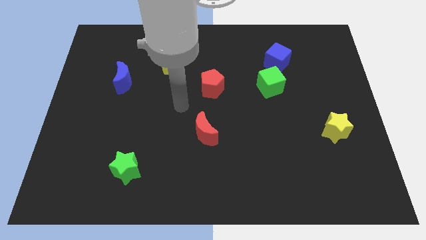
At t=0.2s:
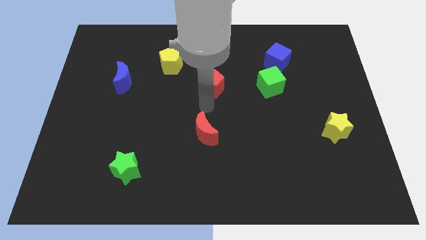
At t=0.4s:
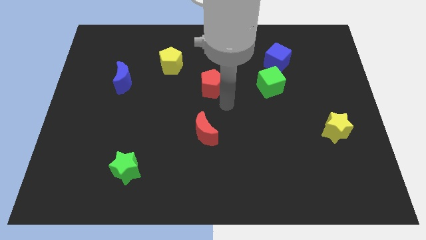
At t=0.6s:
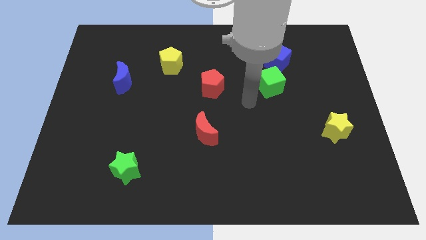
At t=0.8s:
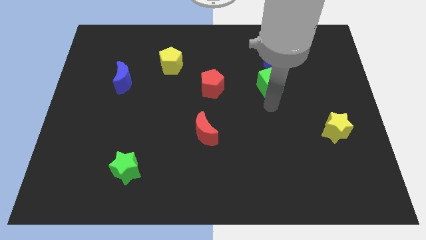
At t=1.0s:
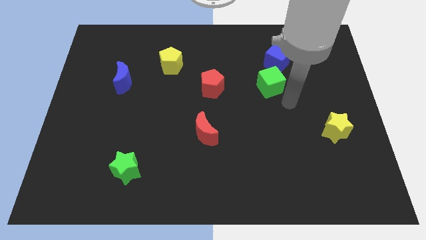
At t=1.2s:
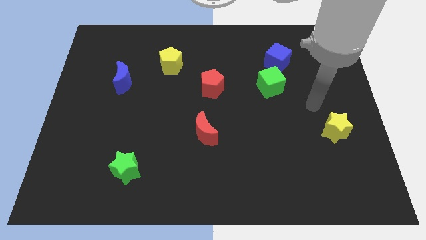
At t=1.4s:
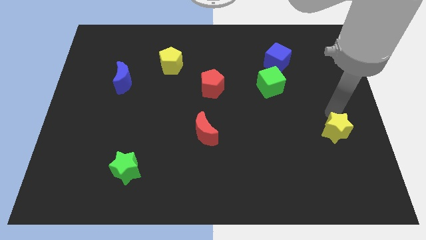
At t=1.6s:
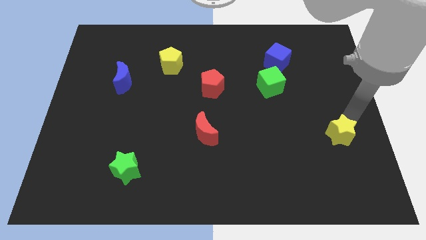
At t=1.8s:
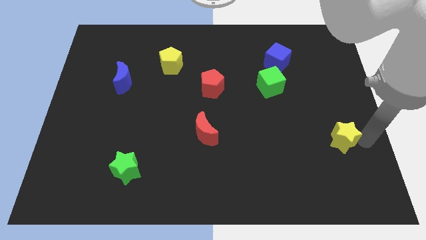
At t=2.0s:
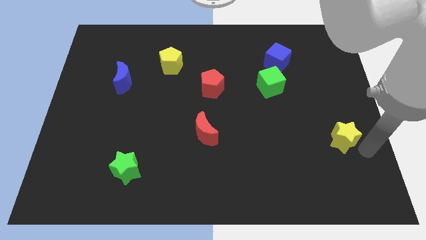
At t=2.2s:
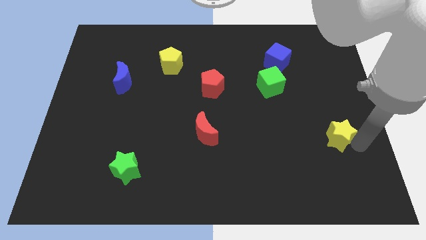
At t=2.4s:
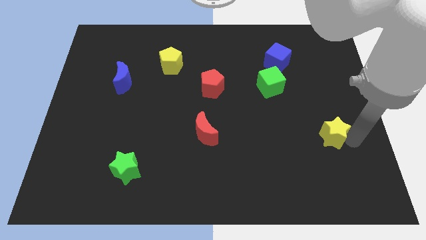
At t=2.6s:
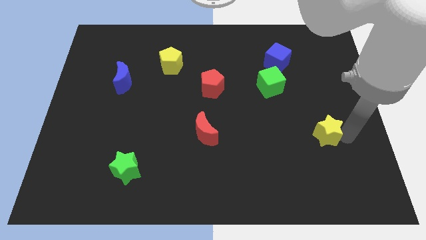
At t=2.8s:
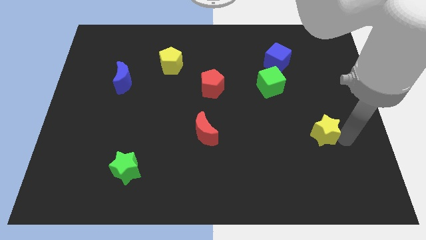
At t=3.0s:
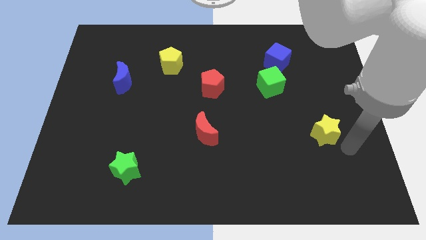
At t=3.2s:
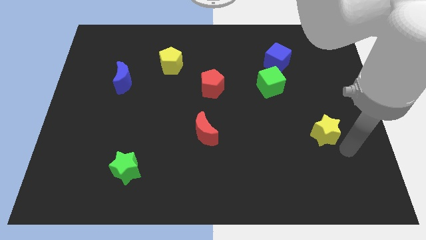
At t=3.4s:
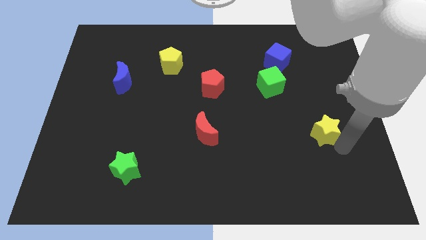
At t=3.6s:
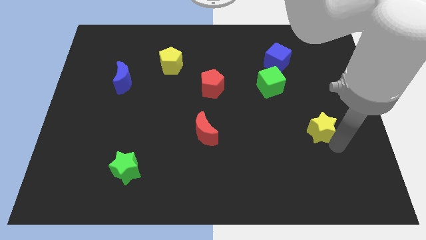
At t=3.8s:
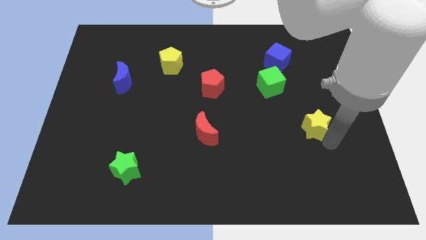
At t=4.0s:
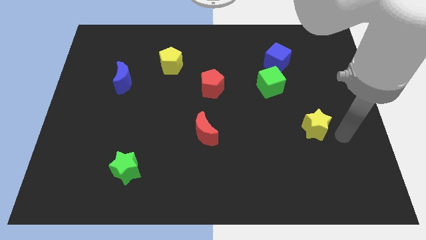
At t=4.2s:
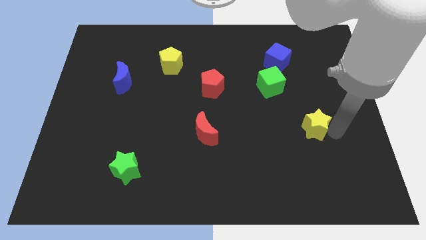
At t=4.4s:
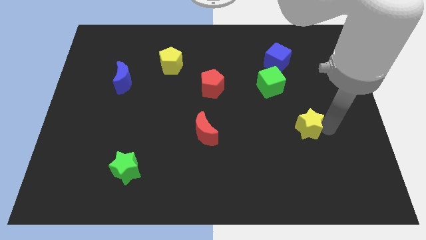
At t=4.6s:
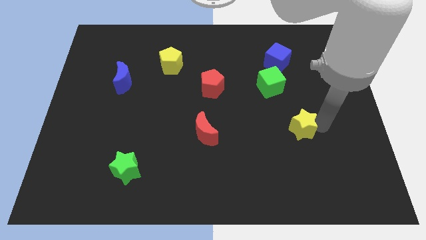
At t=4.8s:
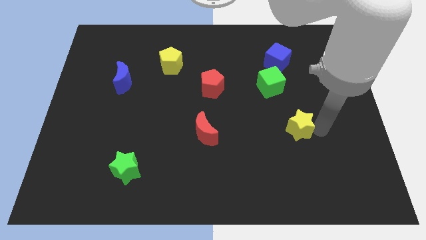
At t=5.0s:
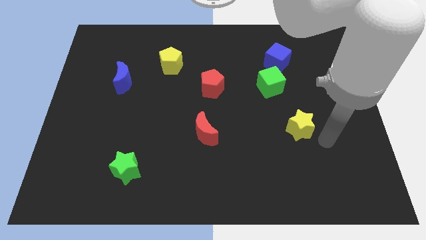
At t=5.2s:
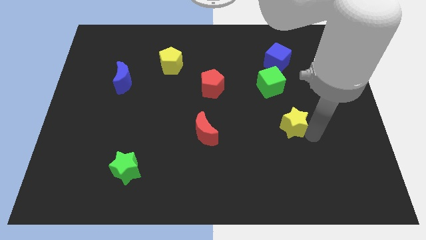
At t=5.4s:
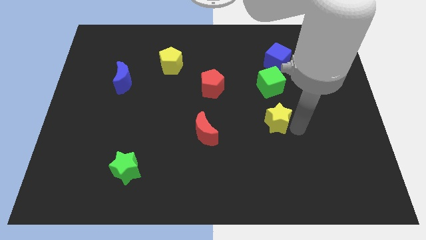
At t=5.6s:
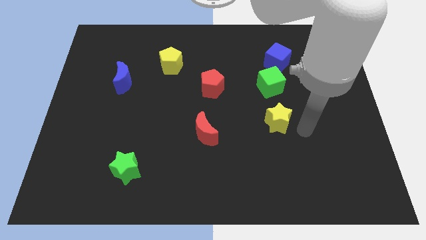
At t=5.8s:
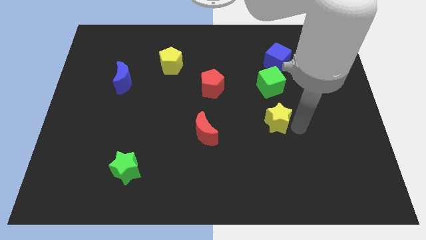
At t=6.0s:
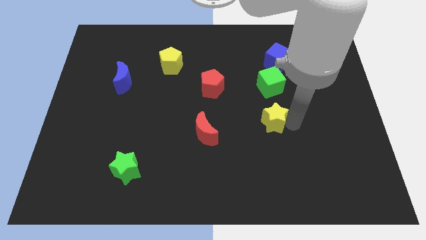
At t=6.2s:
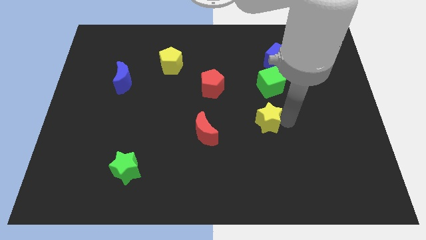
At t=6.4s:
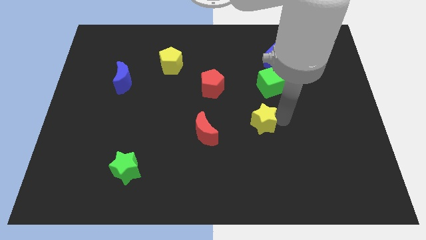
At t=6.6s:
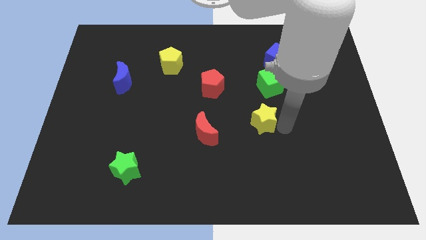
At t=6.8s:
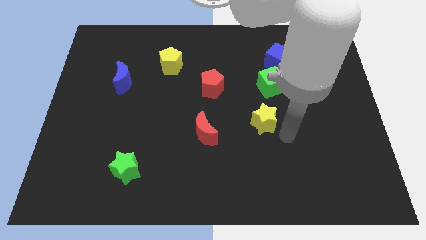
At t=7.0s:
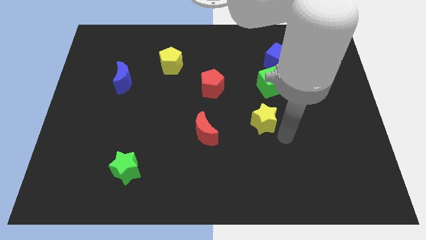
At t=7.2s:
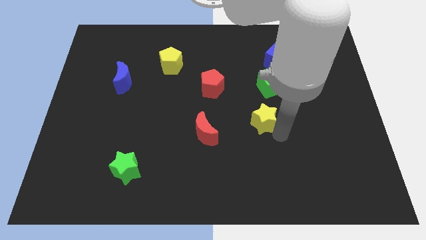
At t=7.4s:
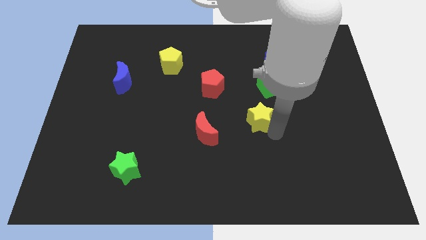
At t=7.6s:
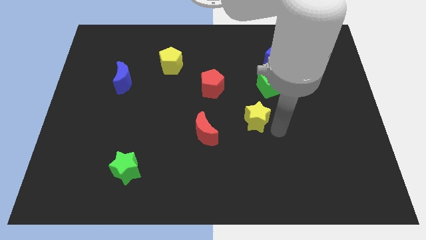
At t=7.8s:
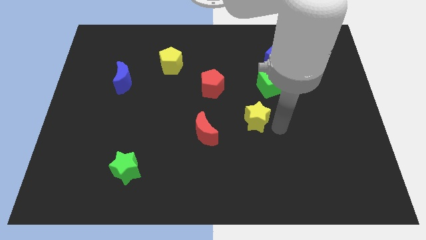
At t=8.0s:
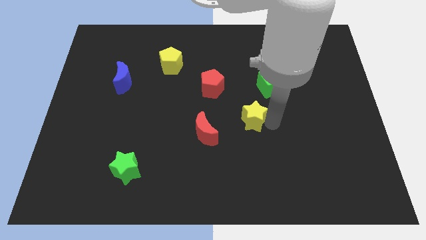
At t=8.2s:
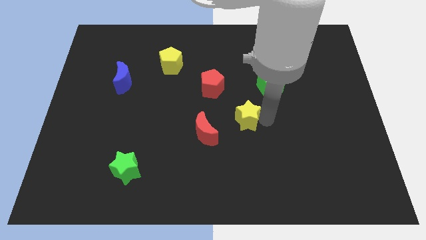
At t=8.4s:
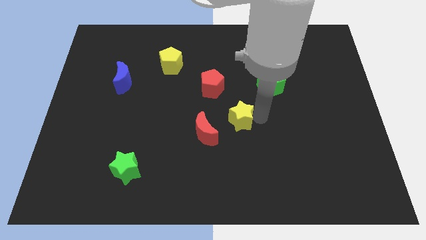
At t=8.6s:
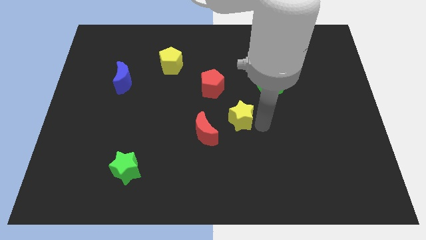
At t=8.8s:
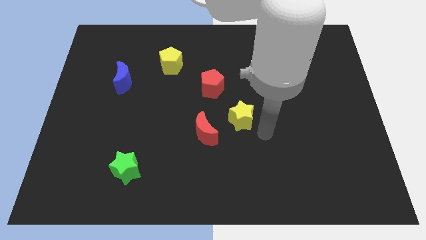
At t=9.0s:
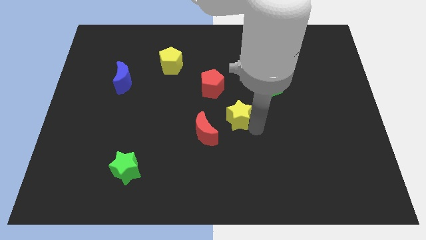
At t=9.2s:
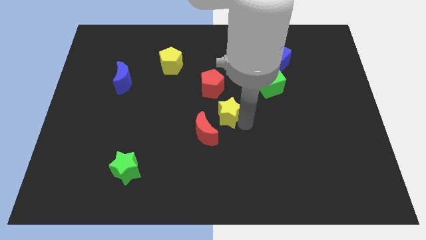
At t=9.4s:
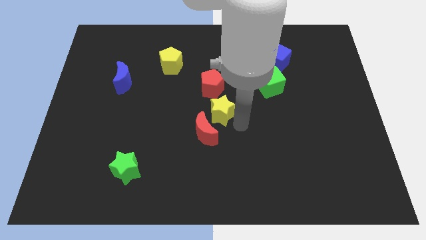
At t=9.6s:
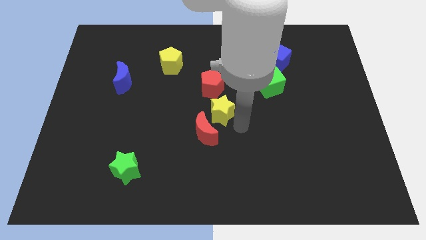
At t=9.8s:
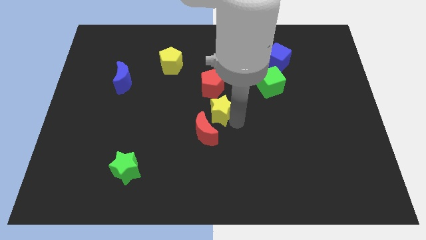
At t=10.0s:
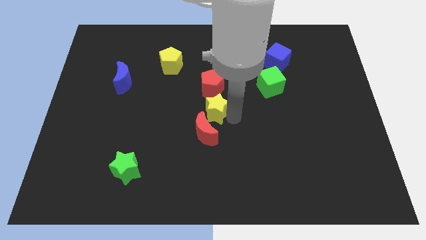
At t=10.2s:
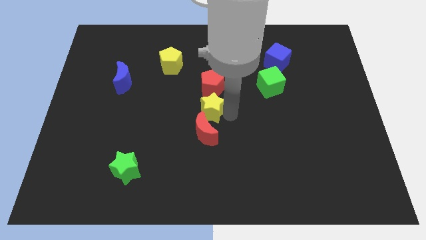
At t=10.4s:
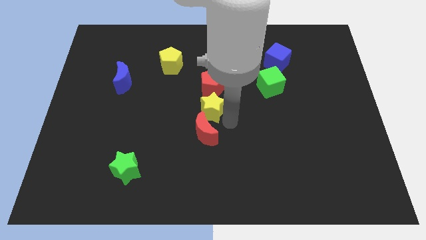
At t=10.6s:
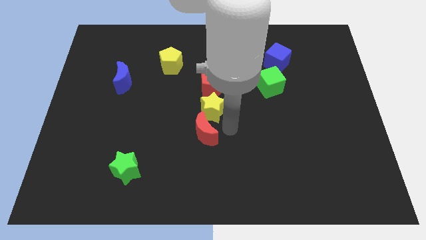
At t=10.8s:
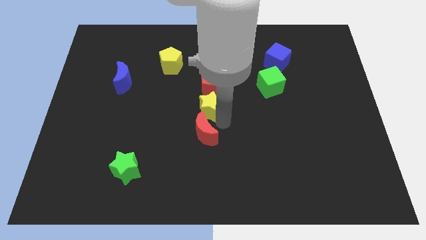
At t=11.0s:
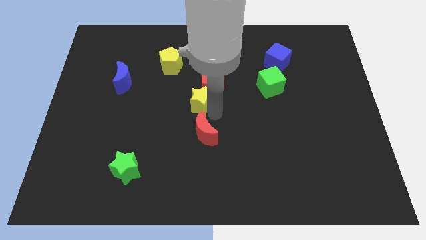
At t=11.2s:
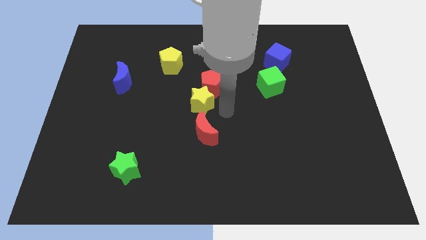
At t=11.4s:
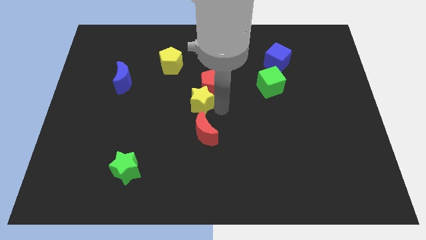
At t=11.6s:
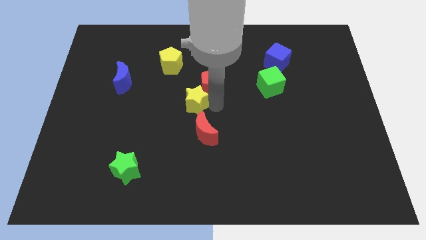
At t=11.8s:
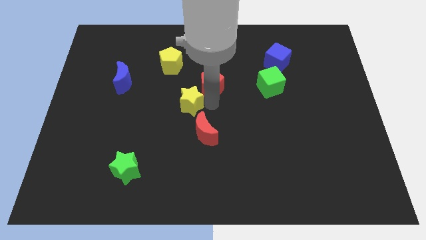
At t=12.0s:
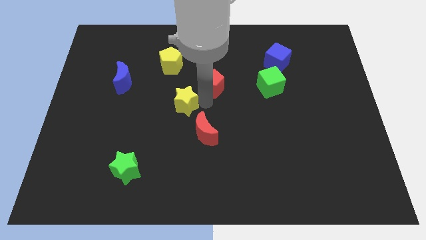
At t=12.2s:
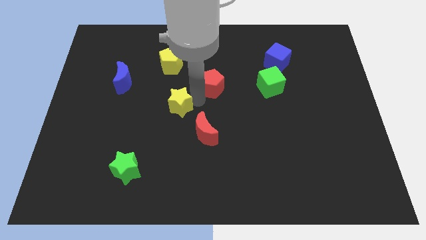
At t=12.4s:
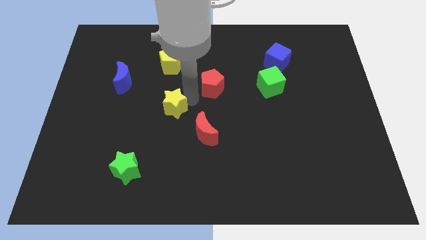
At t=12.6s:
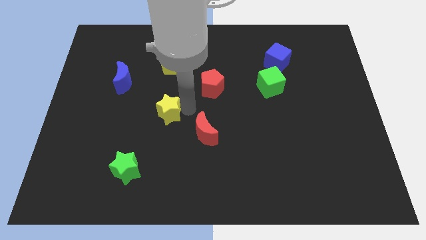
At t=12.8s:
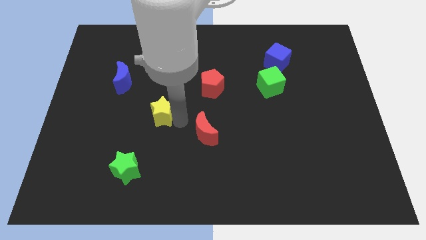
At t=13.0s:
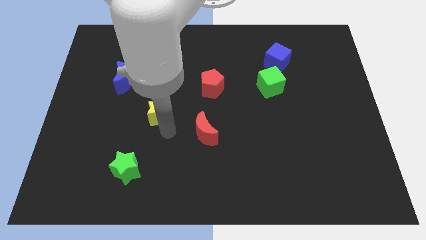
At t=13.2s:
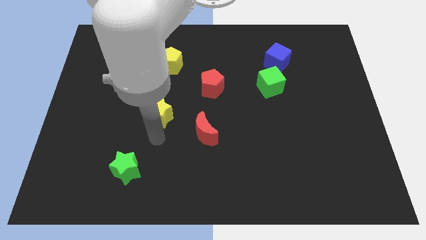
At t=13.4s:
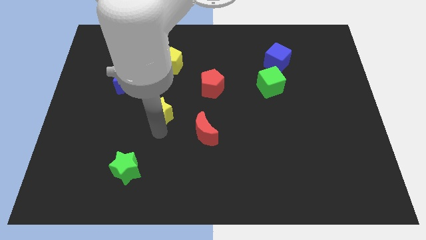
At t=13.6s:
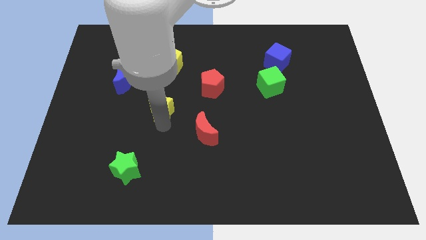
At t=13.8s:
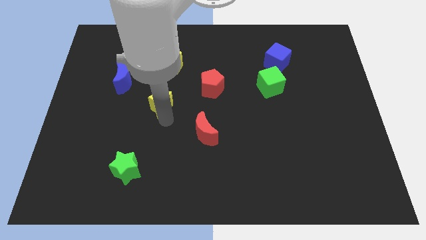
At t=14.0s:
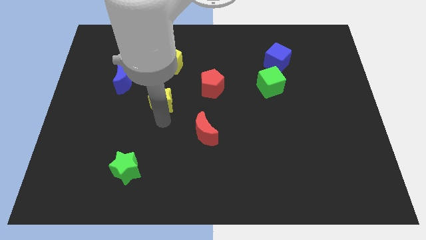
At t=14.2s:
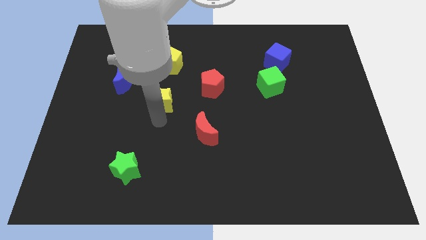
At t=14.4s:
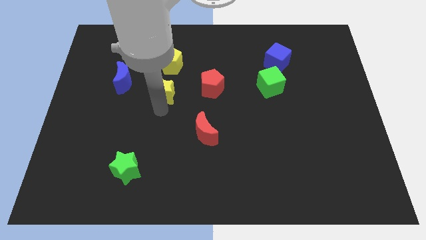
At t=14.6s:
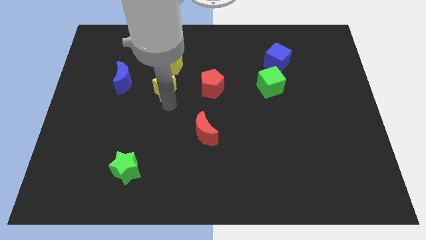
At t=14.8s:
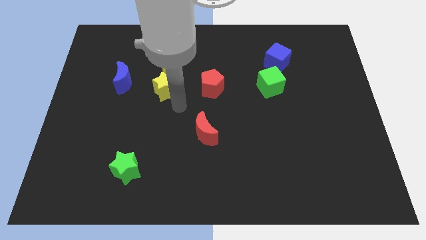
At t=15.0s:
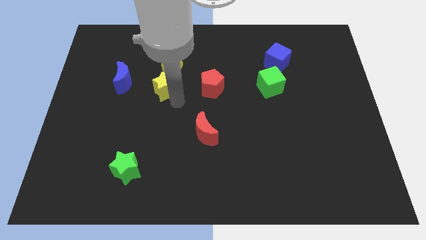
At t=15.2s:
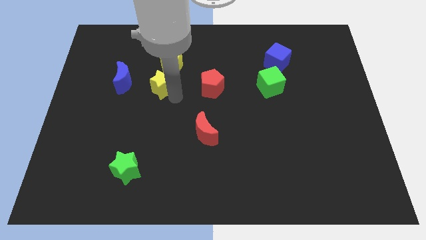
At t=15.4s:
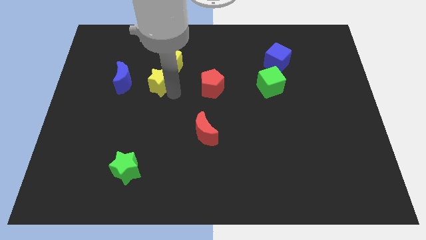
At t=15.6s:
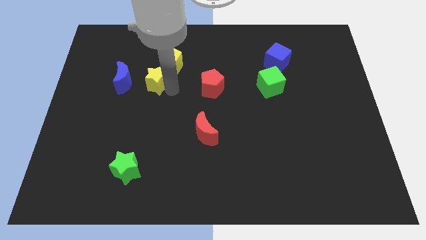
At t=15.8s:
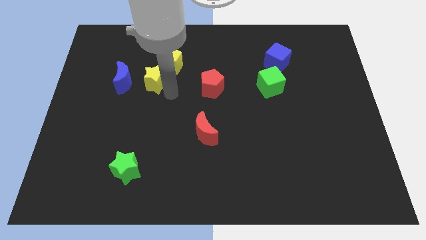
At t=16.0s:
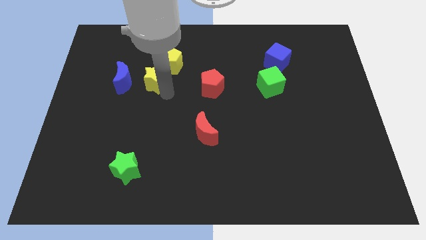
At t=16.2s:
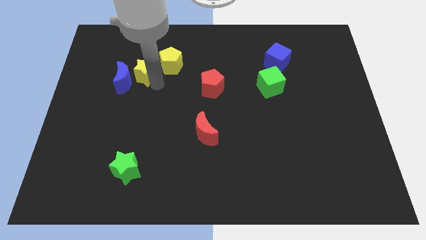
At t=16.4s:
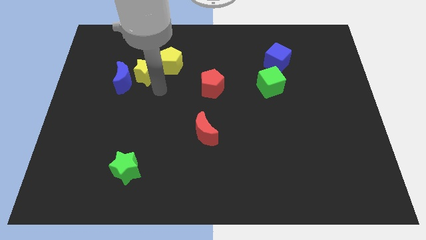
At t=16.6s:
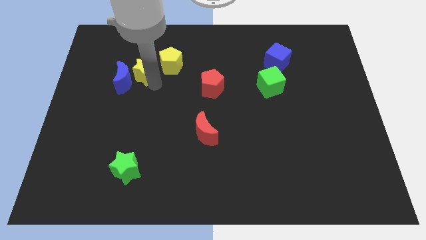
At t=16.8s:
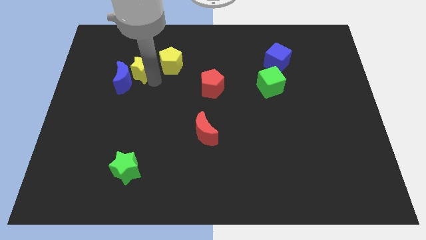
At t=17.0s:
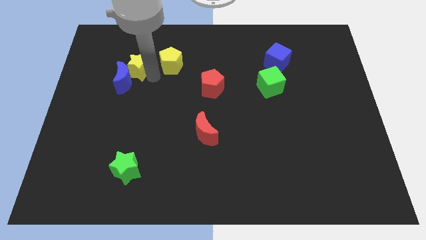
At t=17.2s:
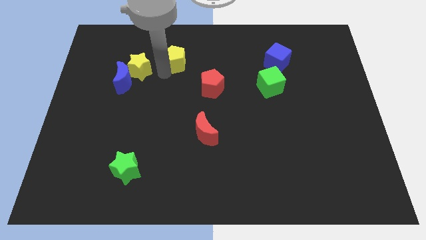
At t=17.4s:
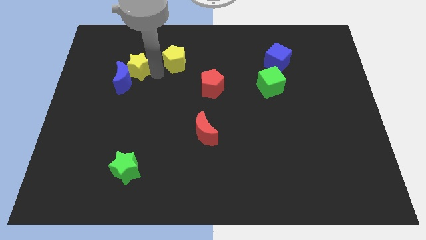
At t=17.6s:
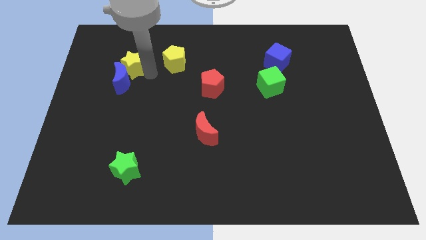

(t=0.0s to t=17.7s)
slide the yellow star to the top left side of the blue moon
